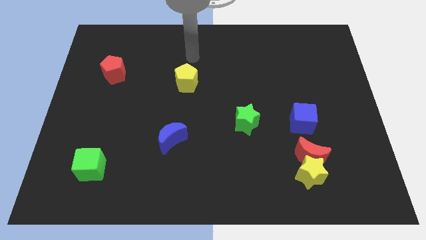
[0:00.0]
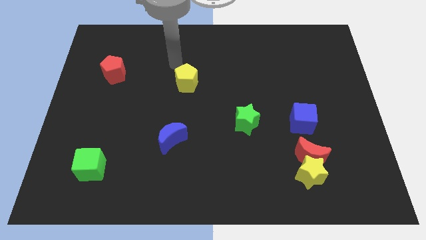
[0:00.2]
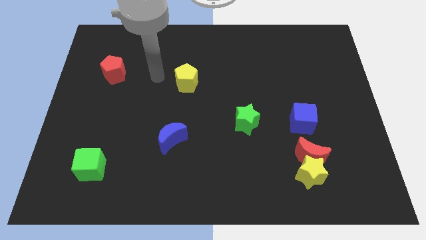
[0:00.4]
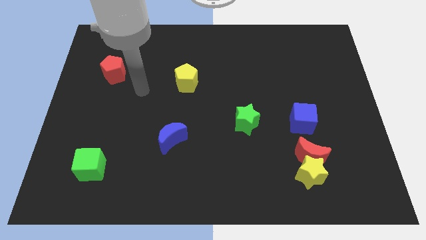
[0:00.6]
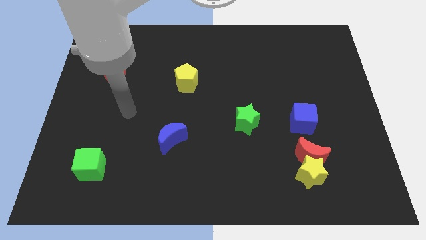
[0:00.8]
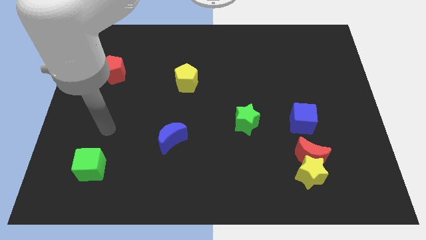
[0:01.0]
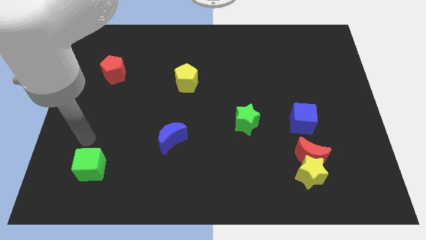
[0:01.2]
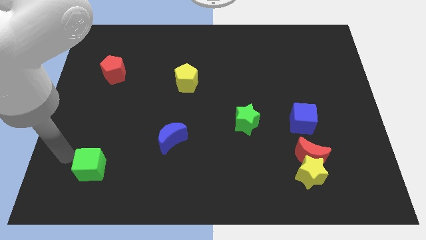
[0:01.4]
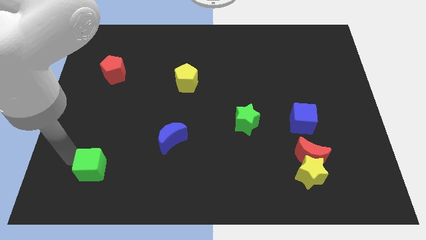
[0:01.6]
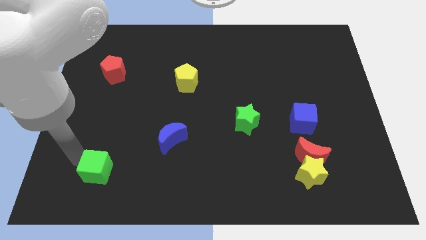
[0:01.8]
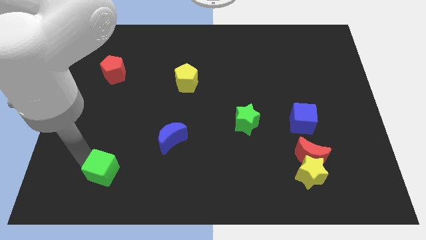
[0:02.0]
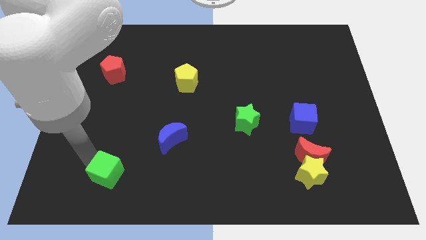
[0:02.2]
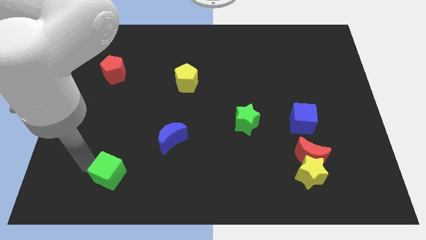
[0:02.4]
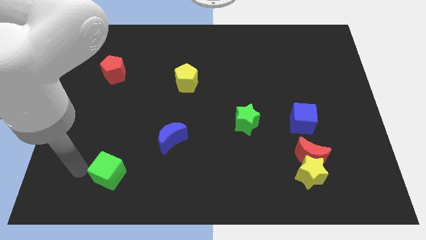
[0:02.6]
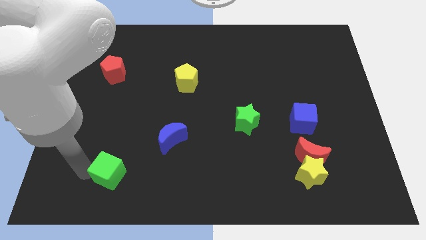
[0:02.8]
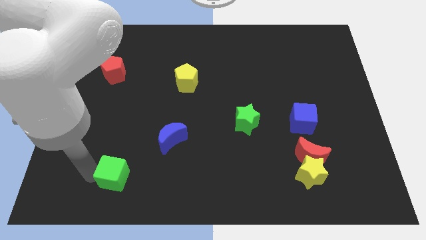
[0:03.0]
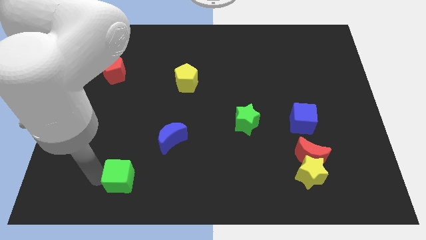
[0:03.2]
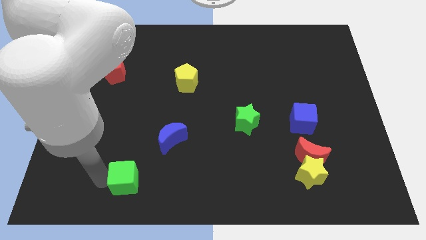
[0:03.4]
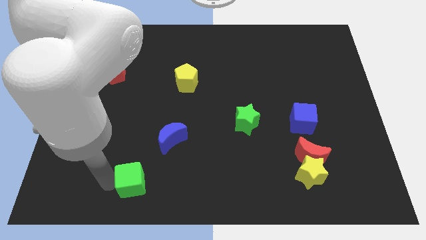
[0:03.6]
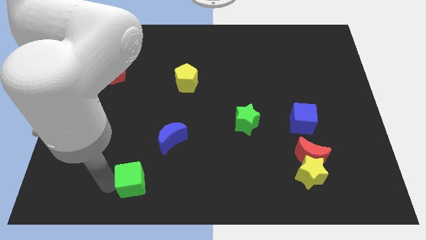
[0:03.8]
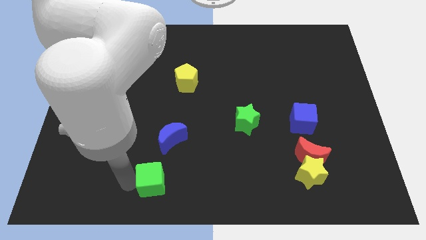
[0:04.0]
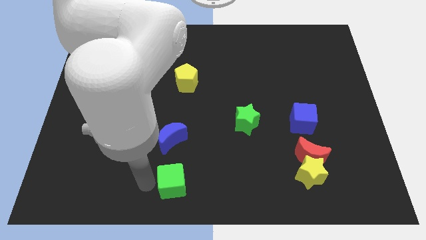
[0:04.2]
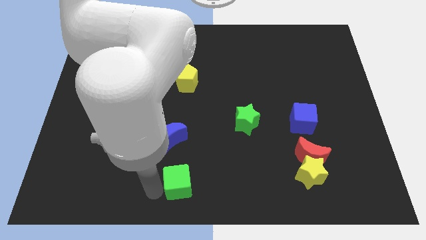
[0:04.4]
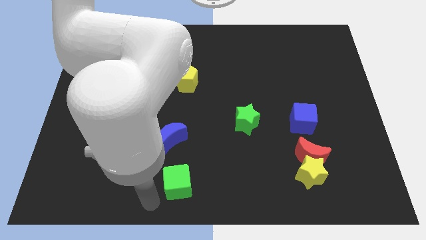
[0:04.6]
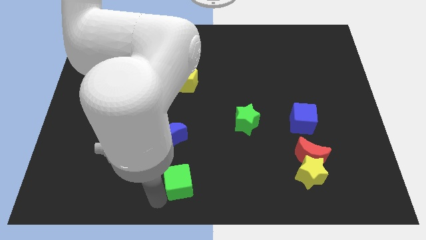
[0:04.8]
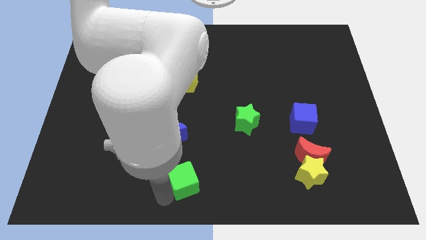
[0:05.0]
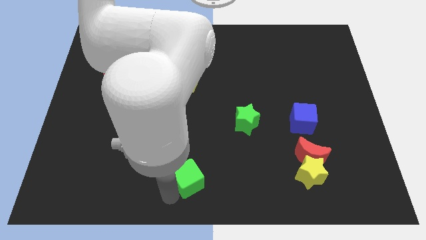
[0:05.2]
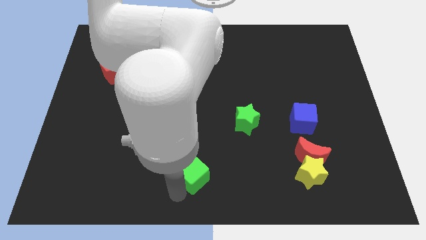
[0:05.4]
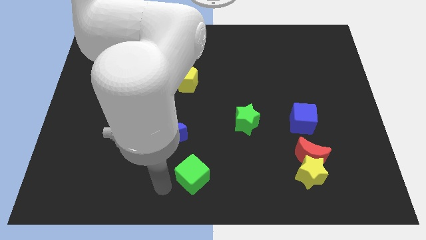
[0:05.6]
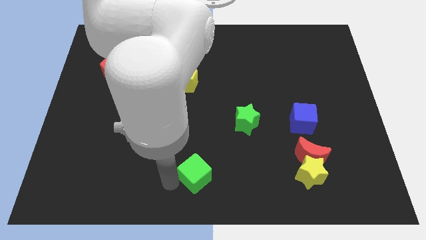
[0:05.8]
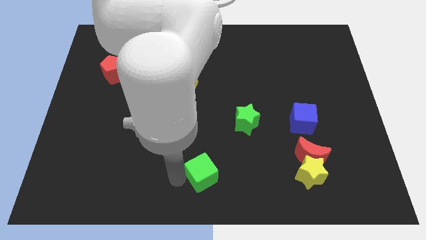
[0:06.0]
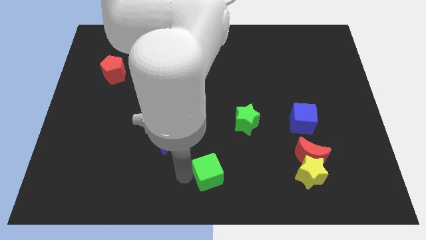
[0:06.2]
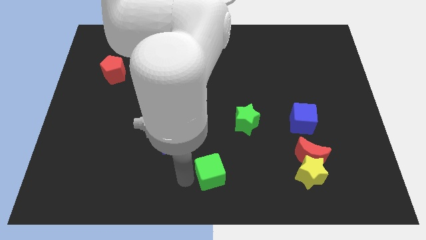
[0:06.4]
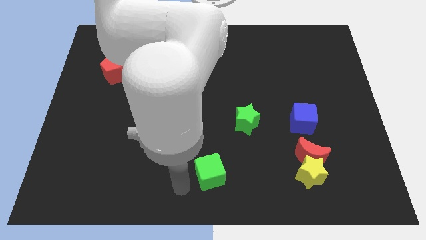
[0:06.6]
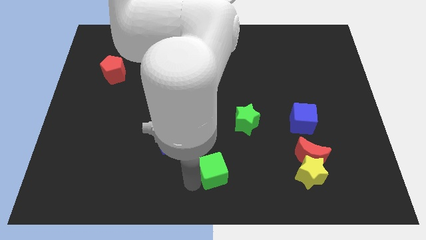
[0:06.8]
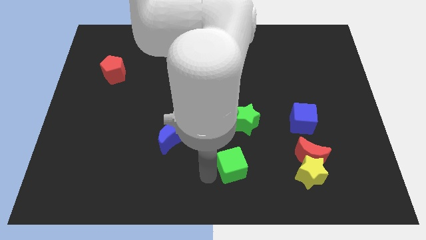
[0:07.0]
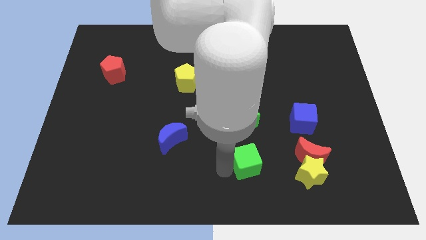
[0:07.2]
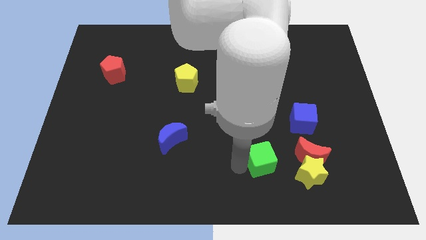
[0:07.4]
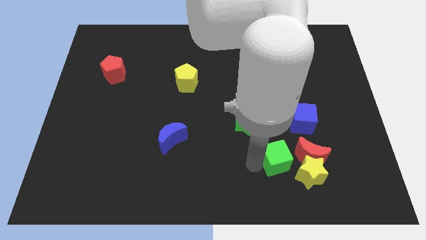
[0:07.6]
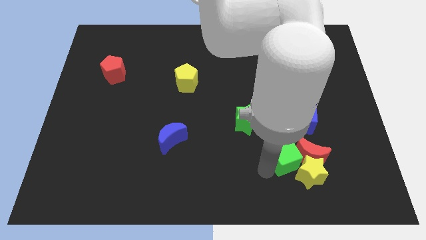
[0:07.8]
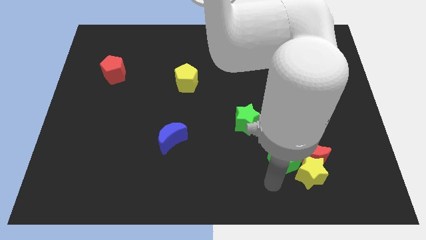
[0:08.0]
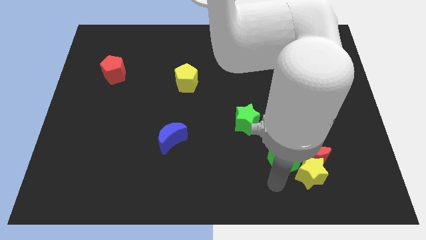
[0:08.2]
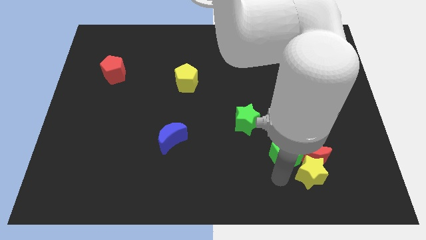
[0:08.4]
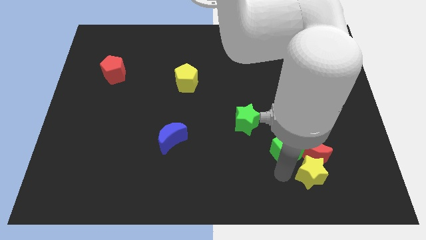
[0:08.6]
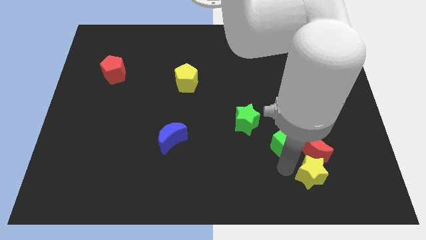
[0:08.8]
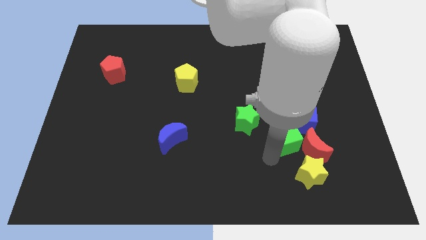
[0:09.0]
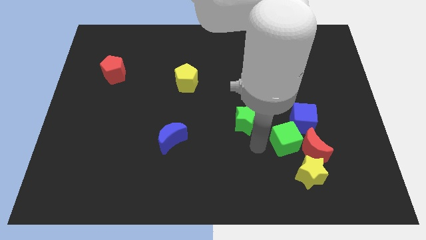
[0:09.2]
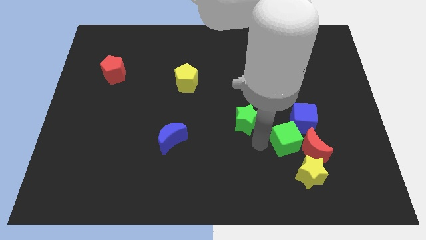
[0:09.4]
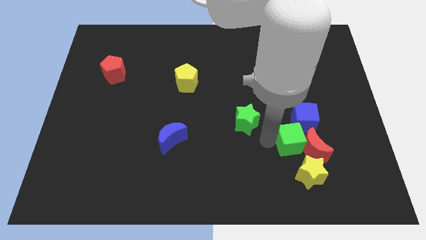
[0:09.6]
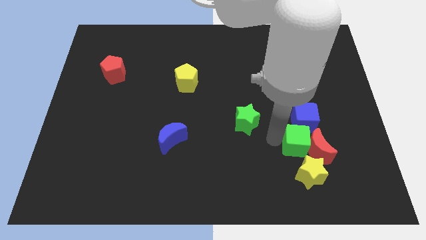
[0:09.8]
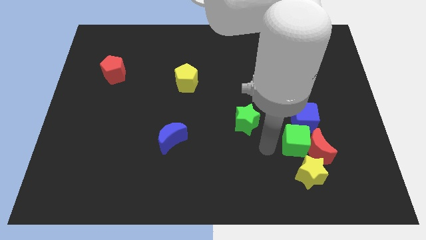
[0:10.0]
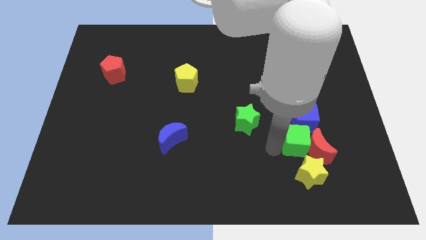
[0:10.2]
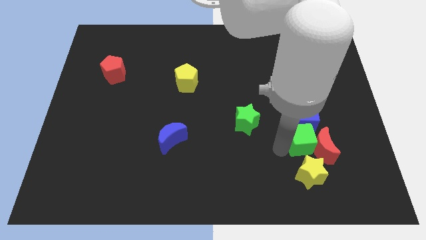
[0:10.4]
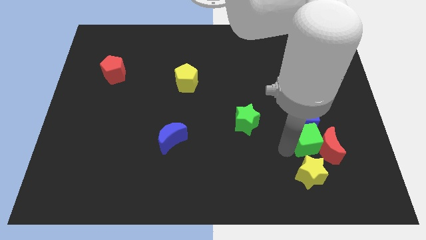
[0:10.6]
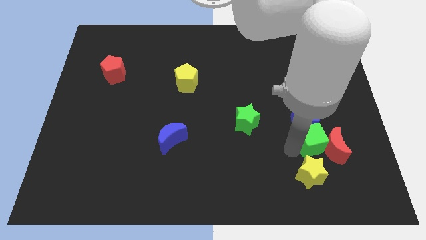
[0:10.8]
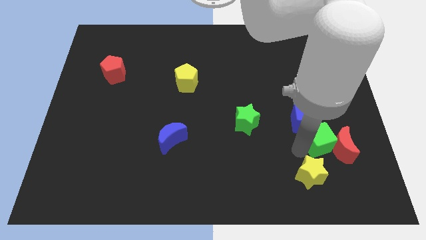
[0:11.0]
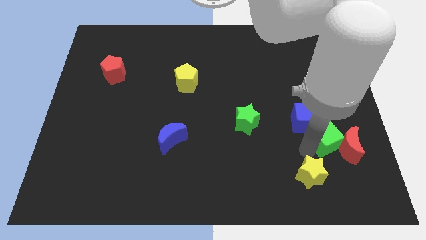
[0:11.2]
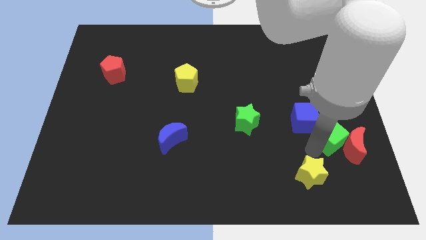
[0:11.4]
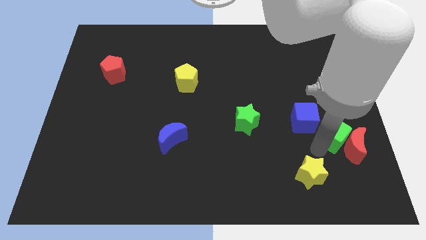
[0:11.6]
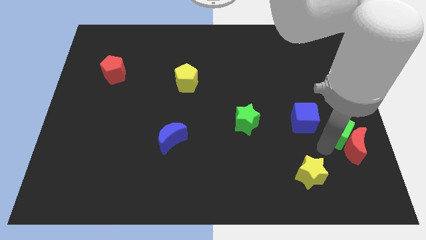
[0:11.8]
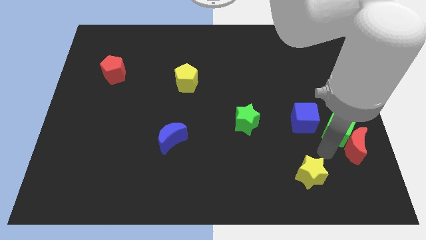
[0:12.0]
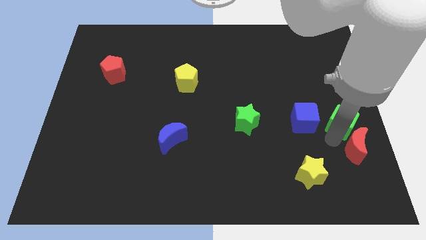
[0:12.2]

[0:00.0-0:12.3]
slide the green cube to the right side of the board
